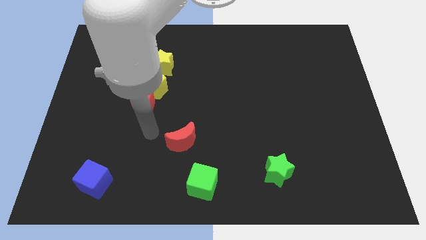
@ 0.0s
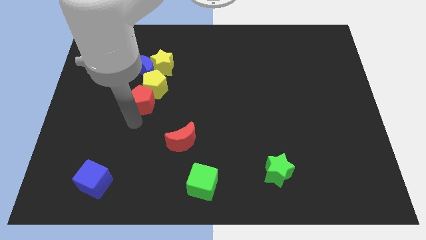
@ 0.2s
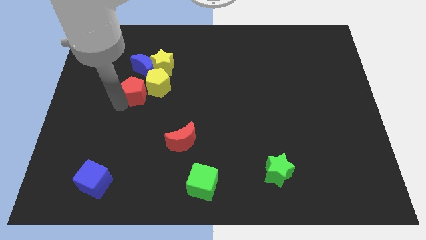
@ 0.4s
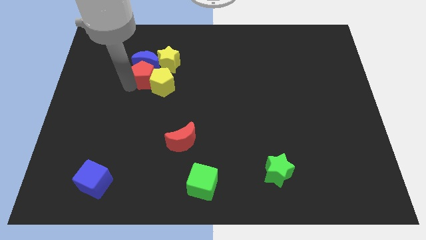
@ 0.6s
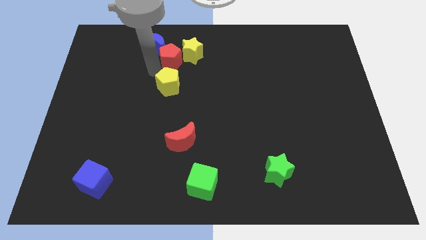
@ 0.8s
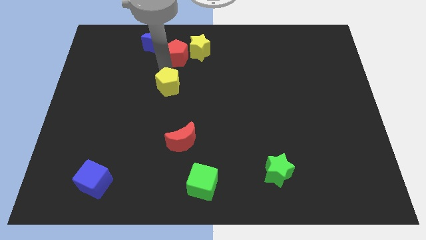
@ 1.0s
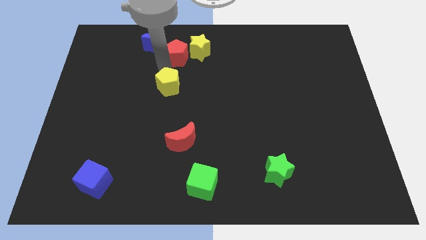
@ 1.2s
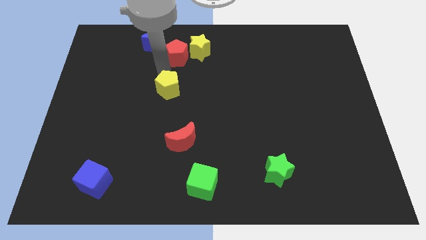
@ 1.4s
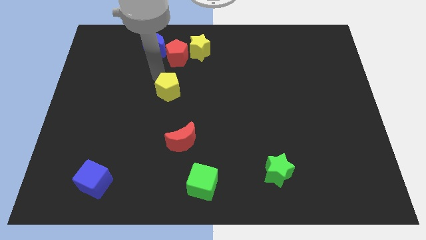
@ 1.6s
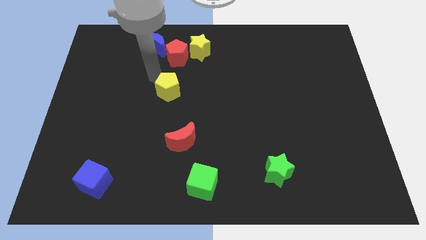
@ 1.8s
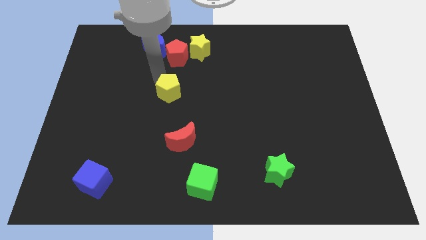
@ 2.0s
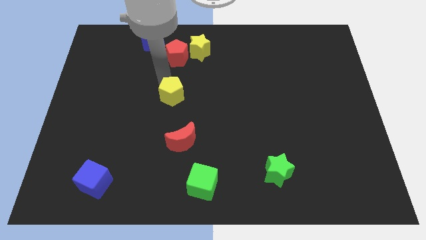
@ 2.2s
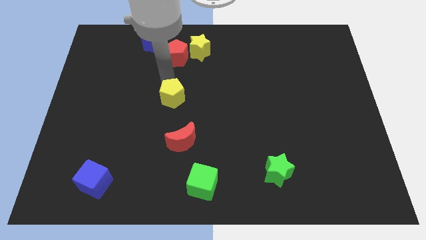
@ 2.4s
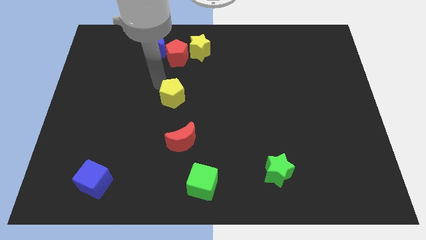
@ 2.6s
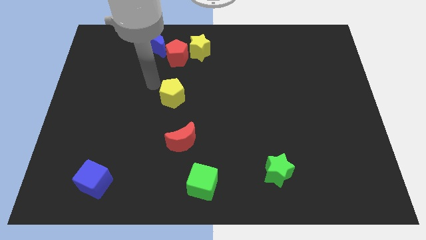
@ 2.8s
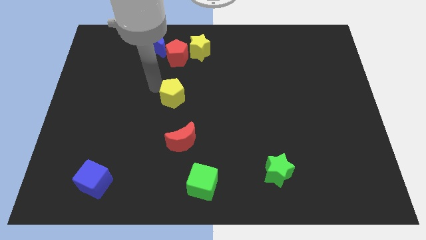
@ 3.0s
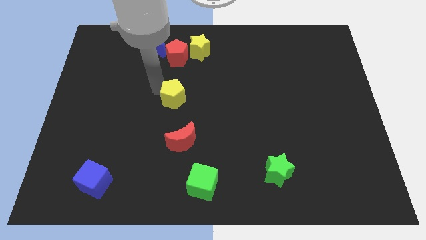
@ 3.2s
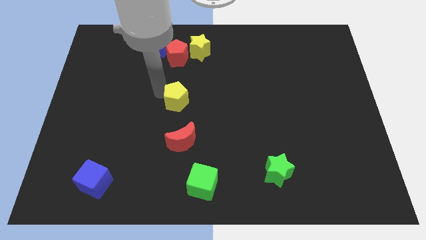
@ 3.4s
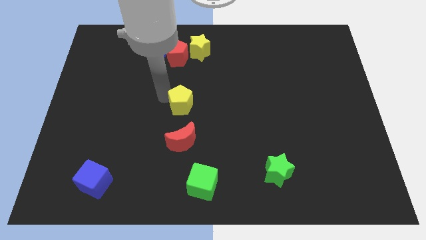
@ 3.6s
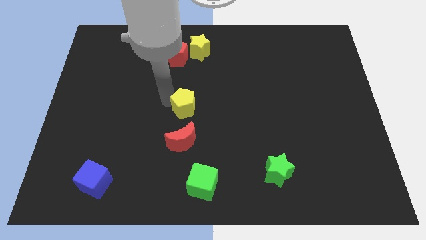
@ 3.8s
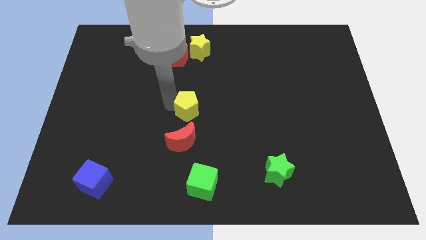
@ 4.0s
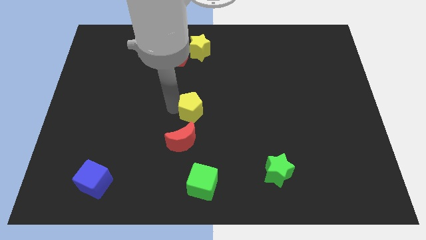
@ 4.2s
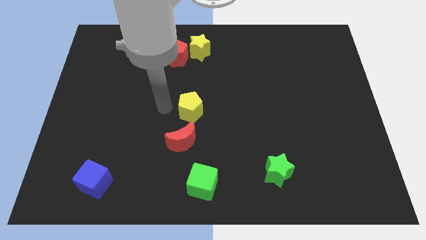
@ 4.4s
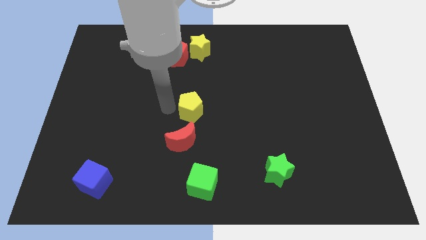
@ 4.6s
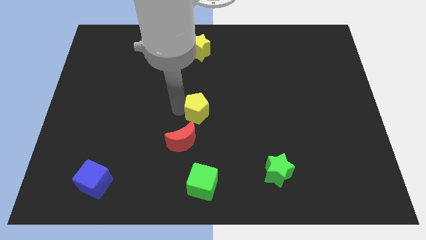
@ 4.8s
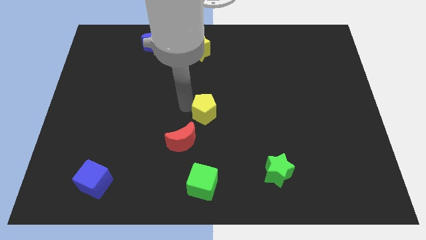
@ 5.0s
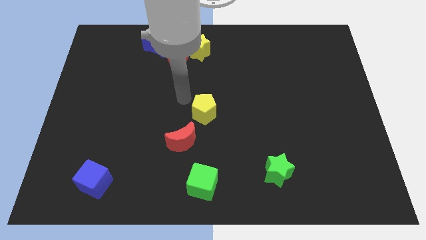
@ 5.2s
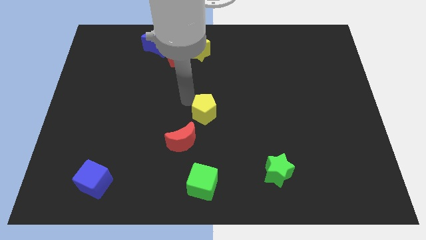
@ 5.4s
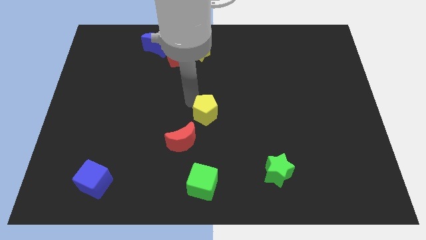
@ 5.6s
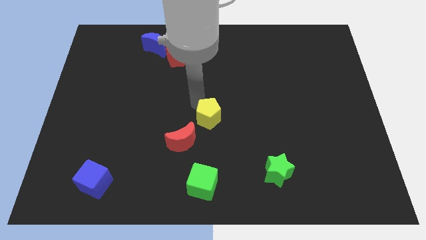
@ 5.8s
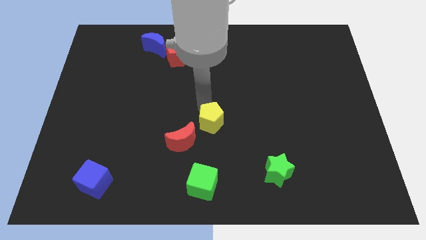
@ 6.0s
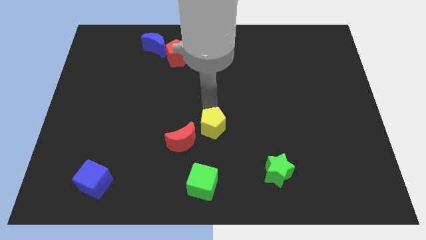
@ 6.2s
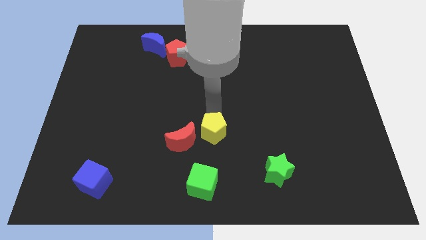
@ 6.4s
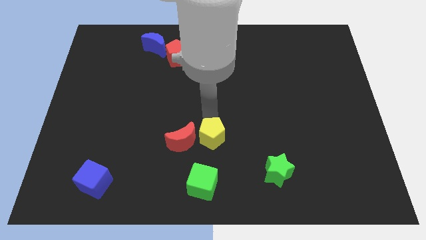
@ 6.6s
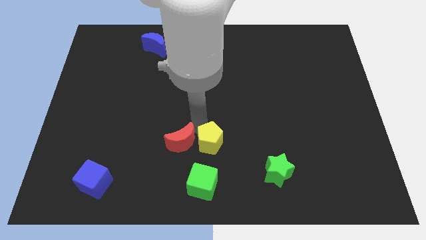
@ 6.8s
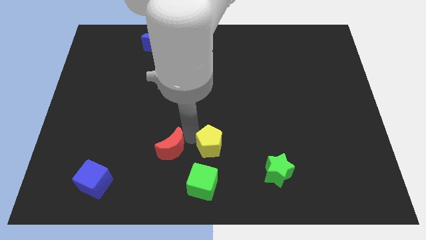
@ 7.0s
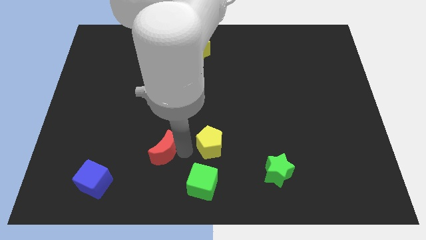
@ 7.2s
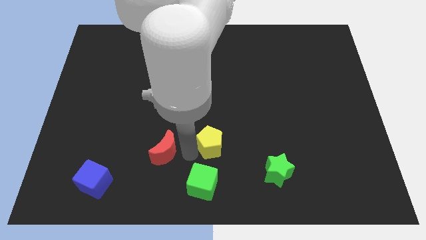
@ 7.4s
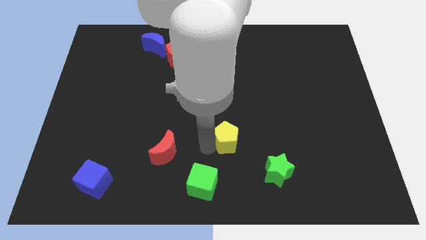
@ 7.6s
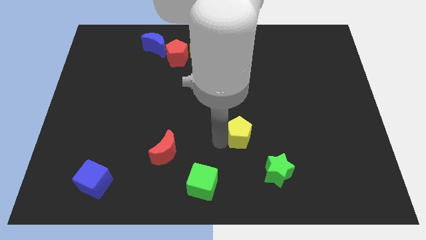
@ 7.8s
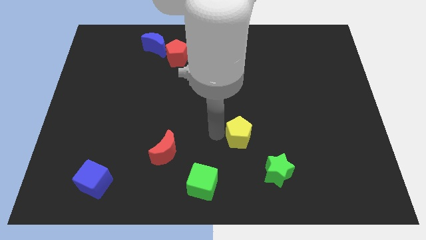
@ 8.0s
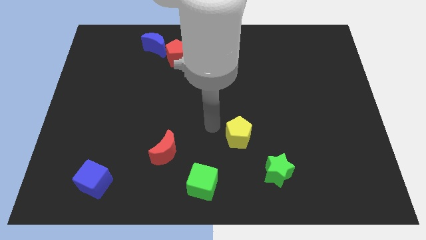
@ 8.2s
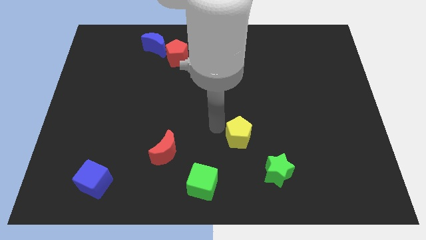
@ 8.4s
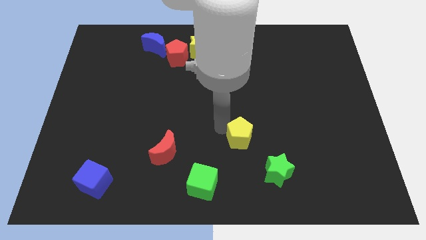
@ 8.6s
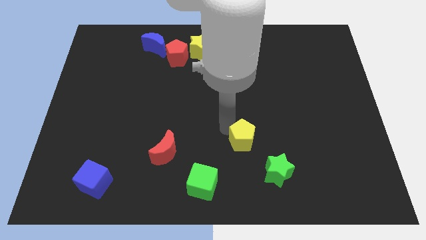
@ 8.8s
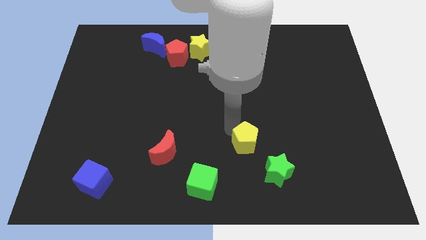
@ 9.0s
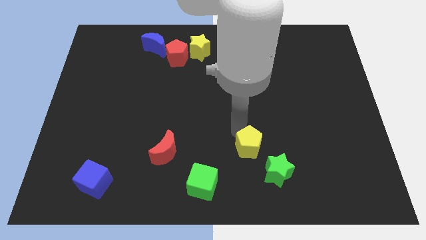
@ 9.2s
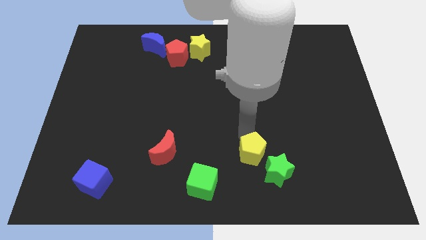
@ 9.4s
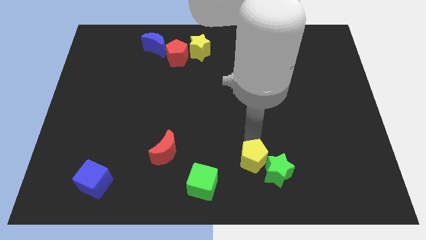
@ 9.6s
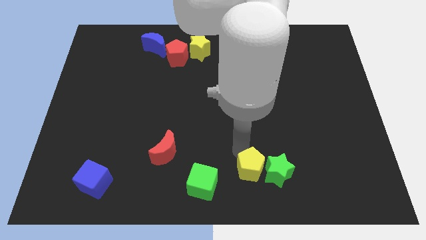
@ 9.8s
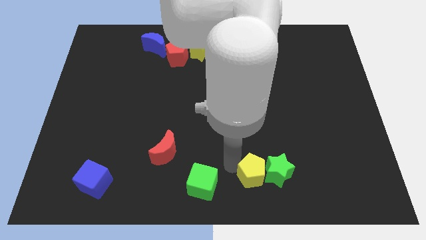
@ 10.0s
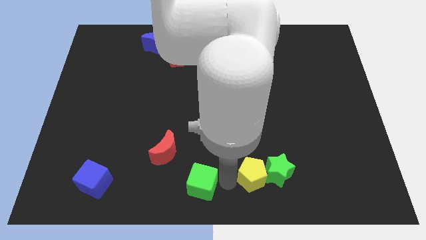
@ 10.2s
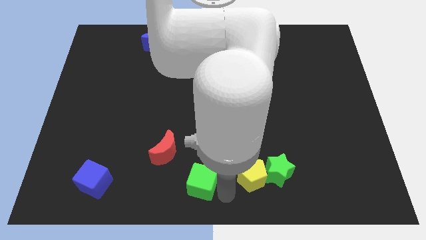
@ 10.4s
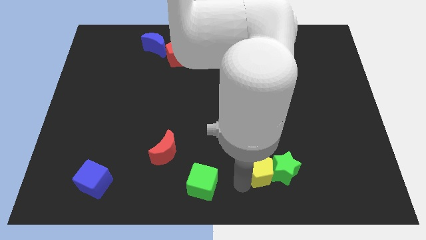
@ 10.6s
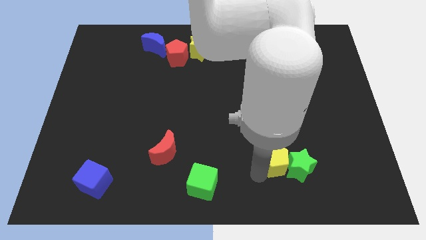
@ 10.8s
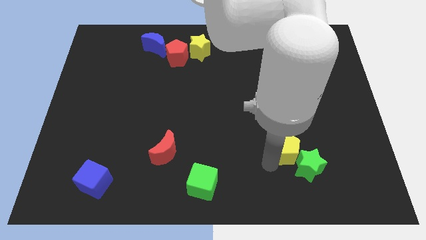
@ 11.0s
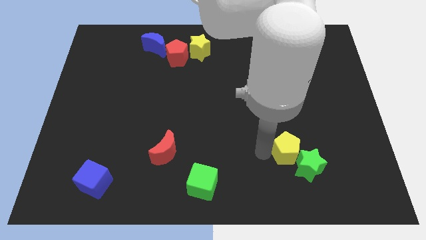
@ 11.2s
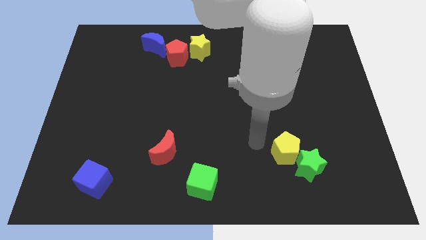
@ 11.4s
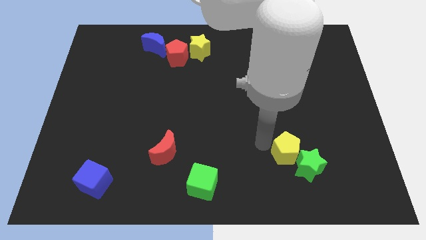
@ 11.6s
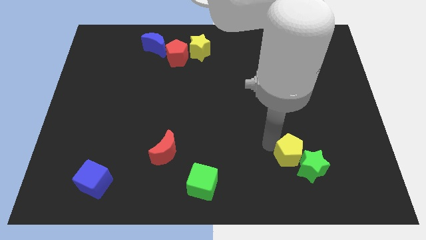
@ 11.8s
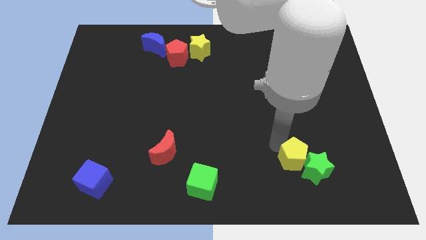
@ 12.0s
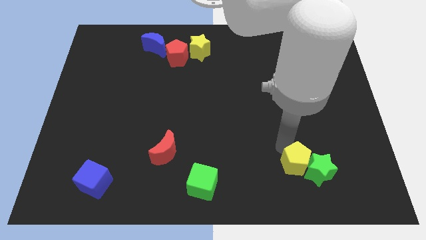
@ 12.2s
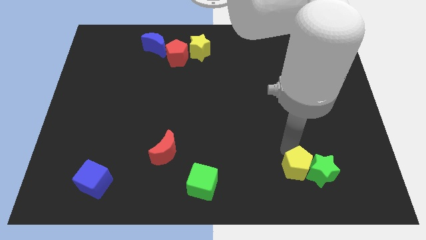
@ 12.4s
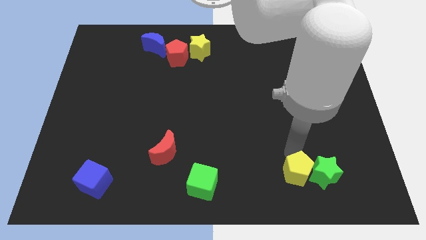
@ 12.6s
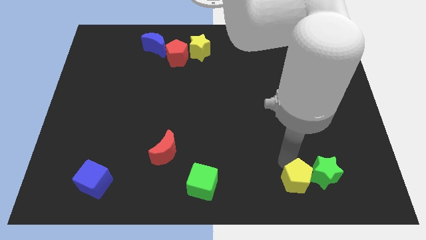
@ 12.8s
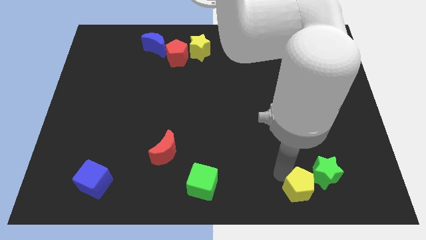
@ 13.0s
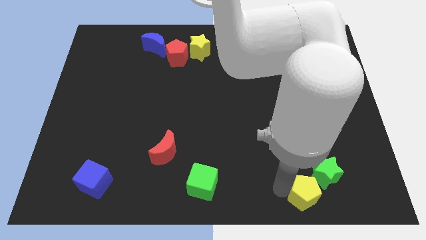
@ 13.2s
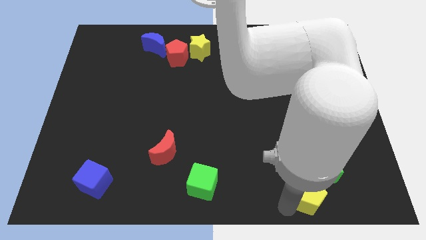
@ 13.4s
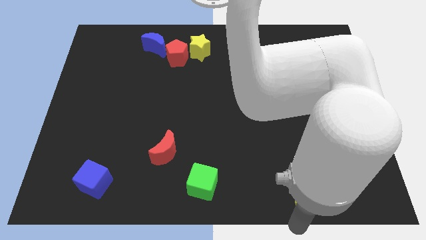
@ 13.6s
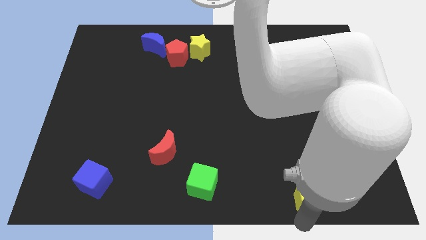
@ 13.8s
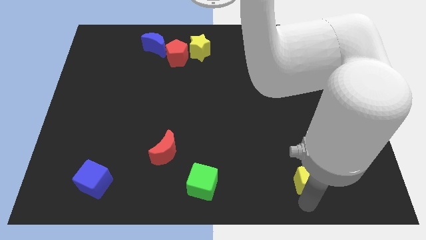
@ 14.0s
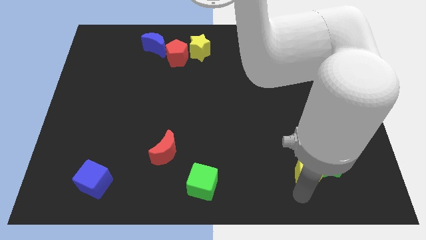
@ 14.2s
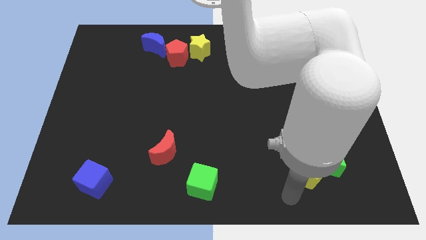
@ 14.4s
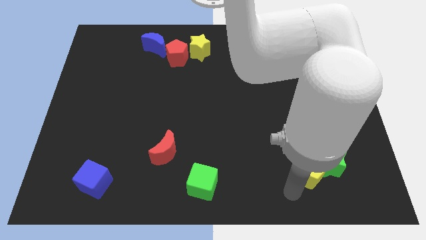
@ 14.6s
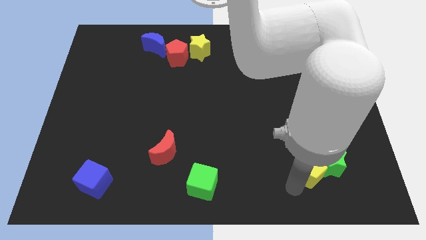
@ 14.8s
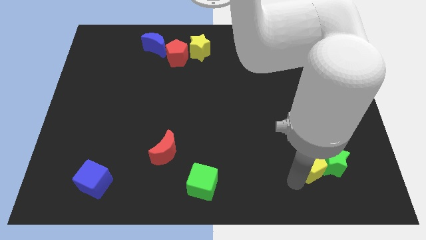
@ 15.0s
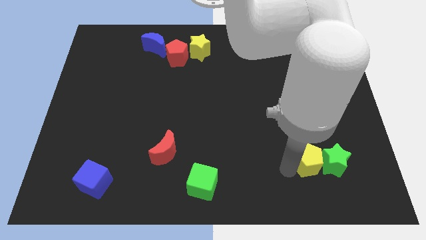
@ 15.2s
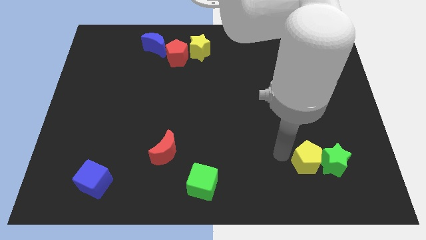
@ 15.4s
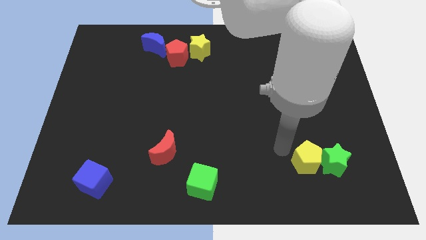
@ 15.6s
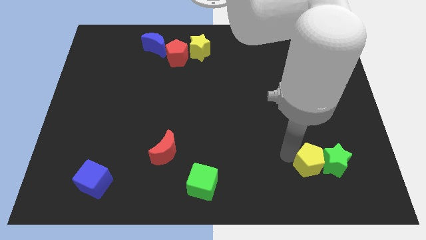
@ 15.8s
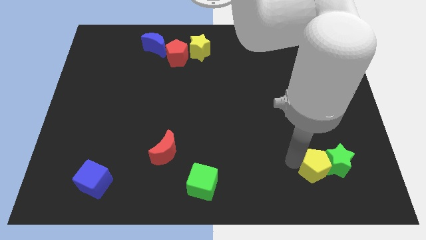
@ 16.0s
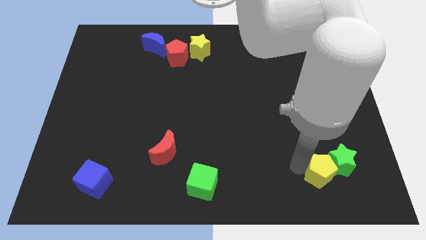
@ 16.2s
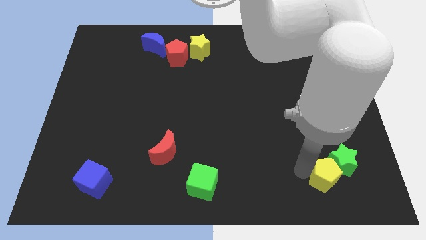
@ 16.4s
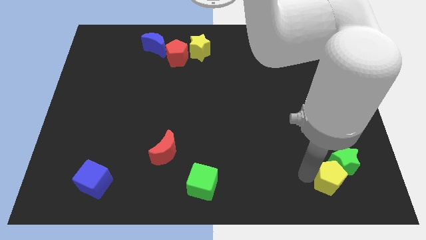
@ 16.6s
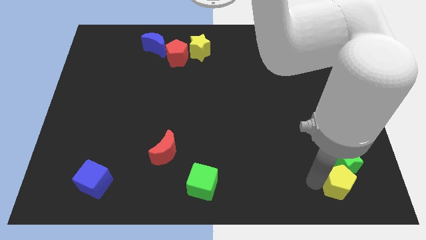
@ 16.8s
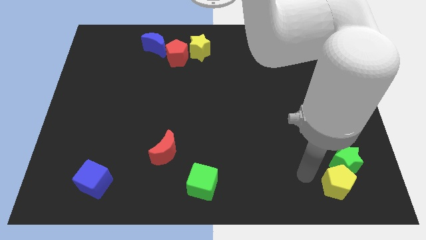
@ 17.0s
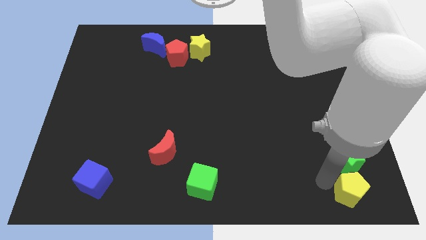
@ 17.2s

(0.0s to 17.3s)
put the yellow pentagon to the bottom right of the board
